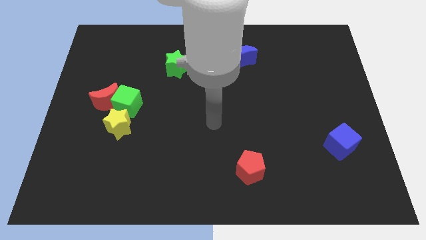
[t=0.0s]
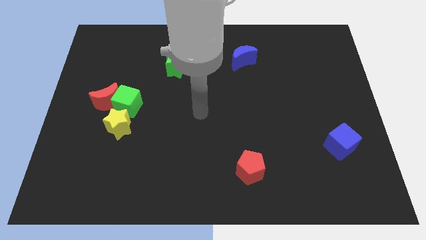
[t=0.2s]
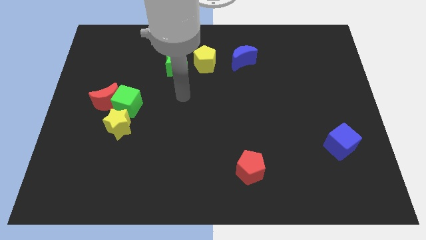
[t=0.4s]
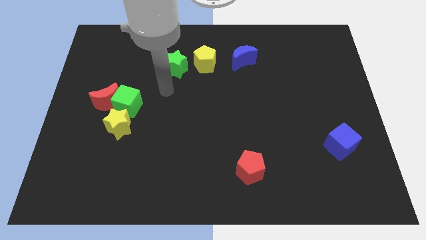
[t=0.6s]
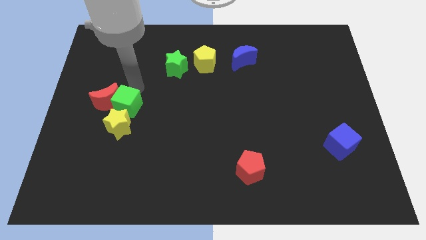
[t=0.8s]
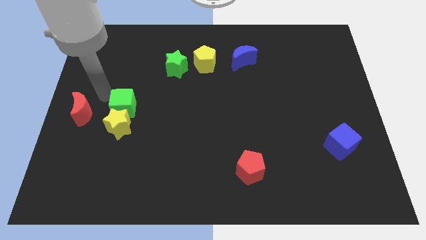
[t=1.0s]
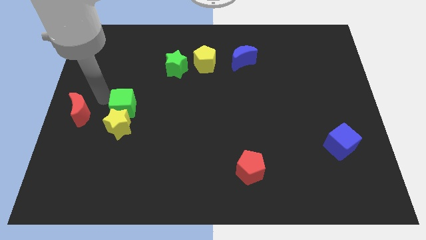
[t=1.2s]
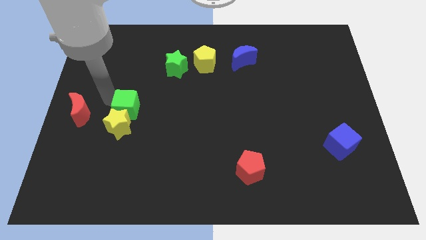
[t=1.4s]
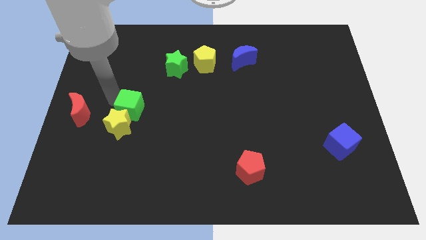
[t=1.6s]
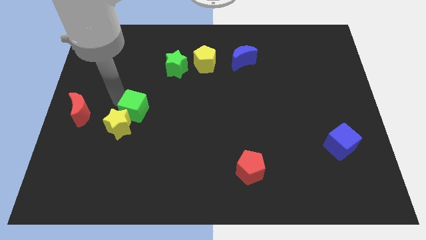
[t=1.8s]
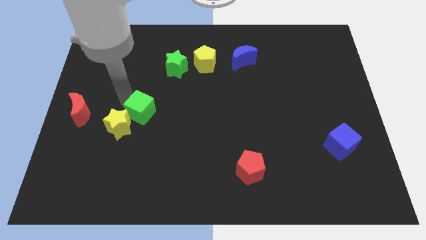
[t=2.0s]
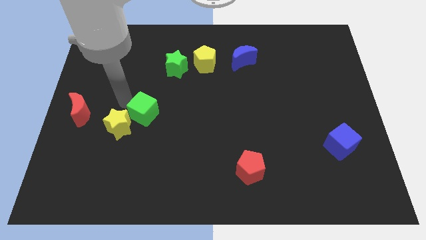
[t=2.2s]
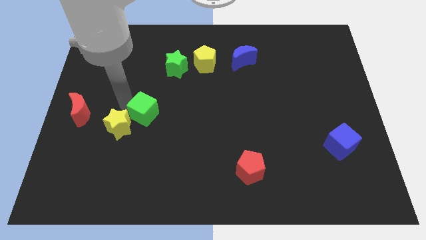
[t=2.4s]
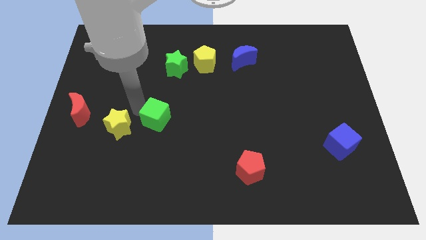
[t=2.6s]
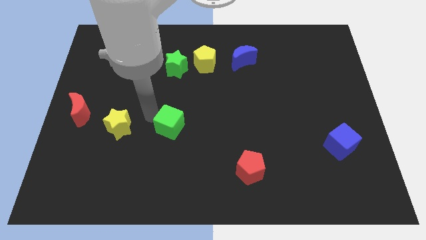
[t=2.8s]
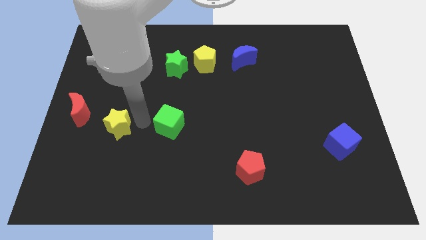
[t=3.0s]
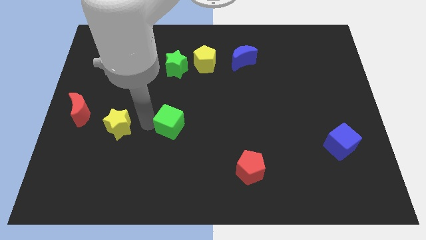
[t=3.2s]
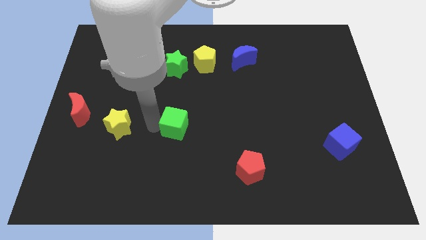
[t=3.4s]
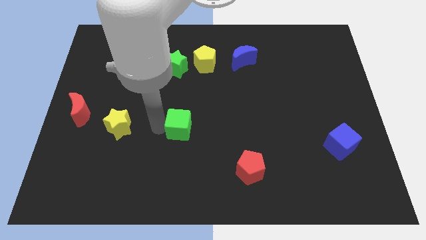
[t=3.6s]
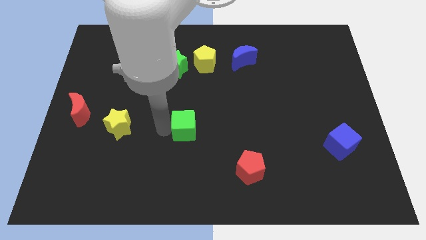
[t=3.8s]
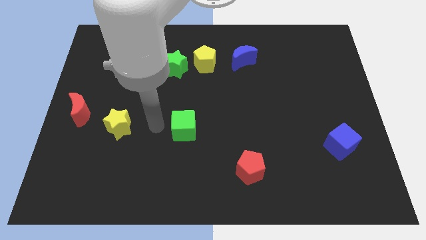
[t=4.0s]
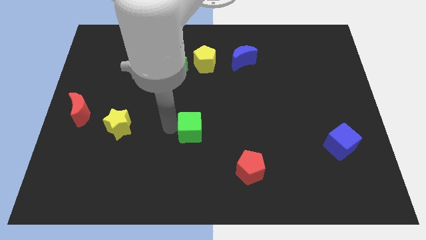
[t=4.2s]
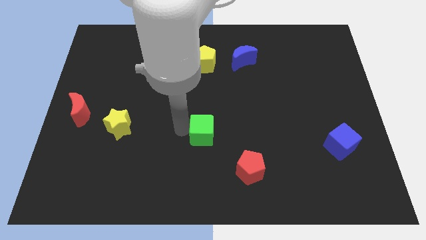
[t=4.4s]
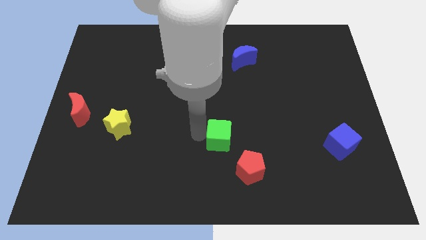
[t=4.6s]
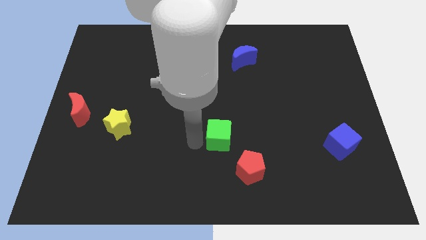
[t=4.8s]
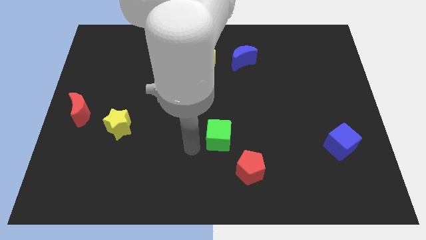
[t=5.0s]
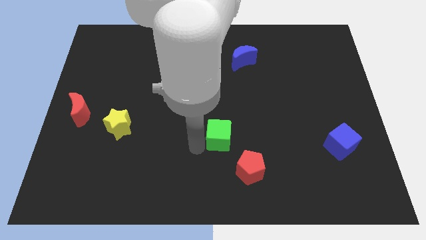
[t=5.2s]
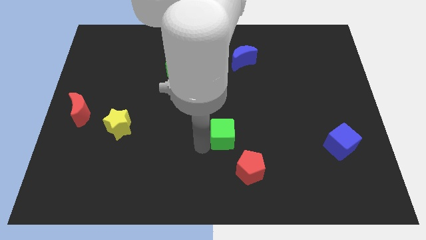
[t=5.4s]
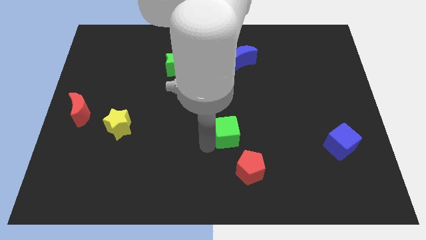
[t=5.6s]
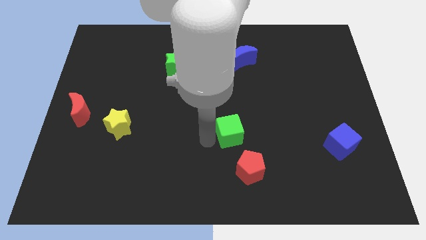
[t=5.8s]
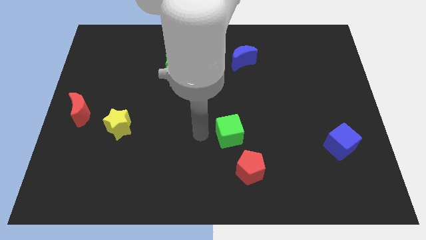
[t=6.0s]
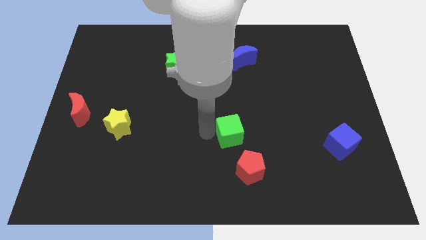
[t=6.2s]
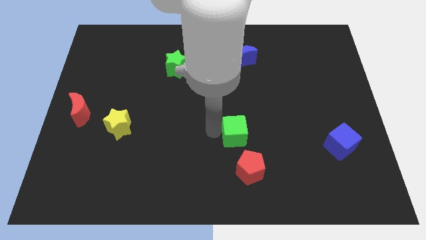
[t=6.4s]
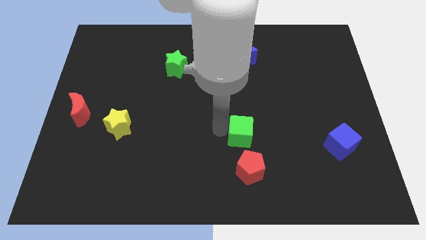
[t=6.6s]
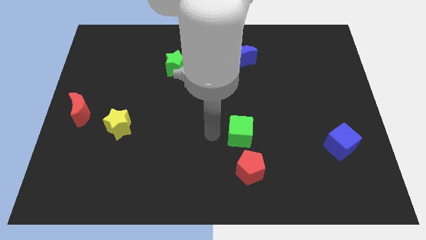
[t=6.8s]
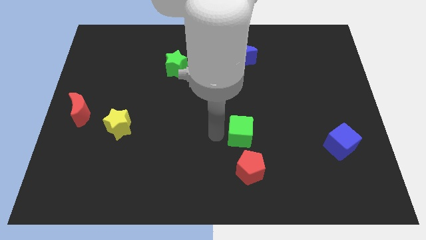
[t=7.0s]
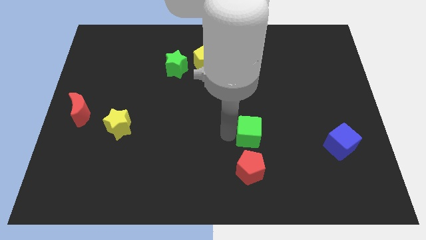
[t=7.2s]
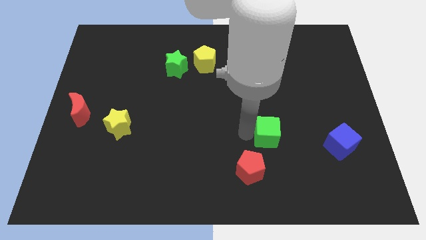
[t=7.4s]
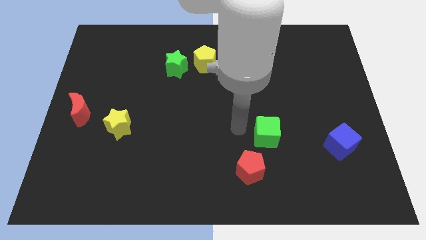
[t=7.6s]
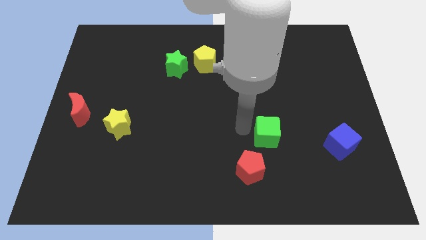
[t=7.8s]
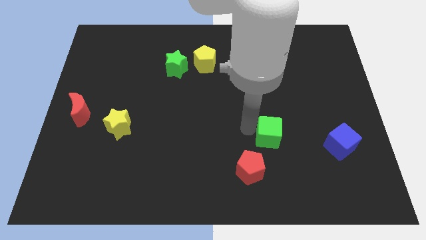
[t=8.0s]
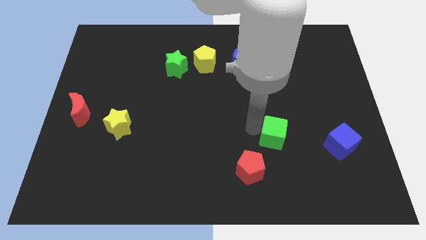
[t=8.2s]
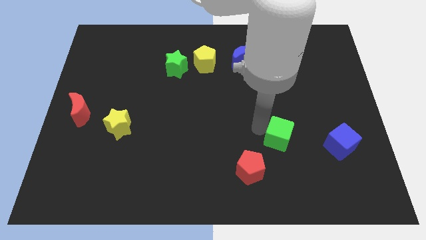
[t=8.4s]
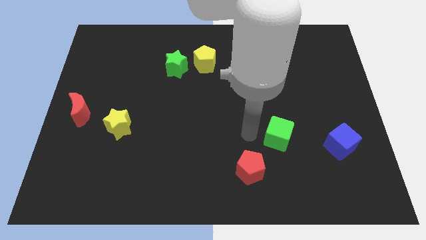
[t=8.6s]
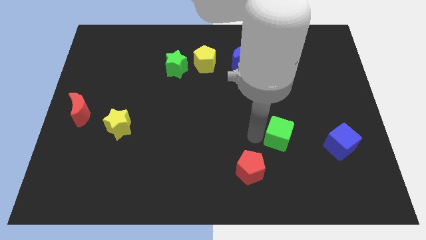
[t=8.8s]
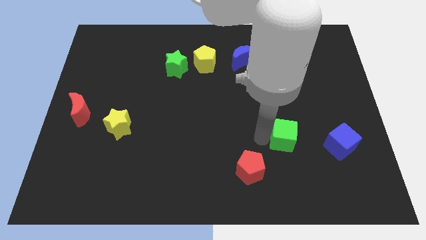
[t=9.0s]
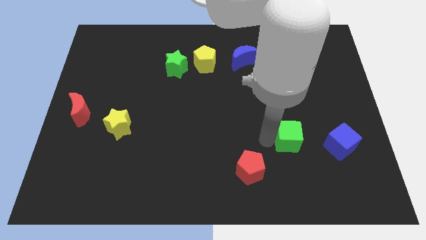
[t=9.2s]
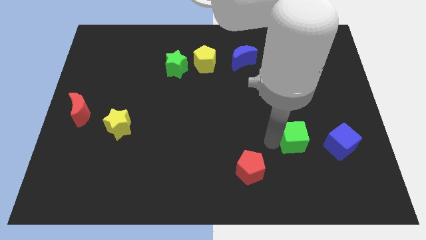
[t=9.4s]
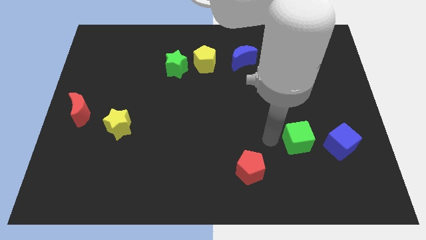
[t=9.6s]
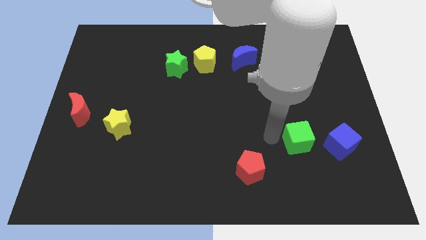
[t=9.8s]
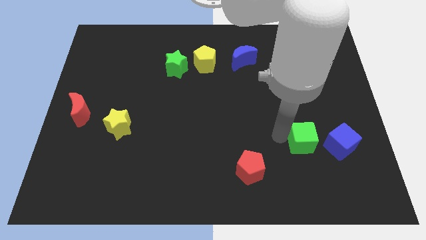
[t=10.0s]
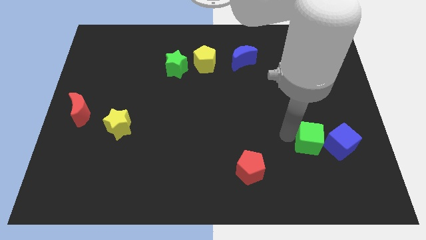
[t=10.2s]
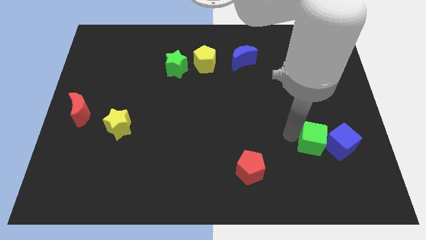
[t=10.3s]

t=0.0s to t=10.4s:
push the green cube towards the blue cube

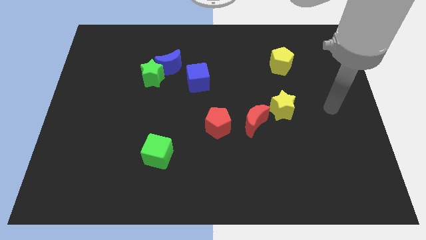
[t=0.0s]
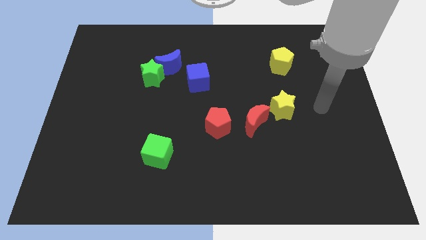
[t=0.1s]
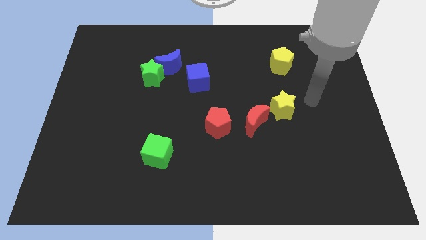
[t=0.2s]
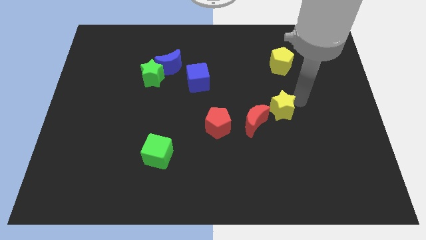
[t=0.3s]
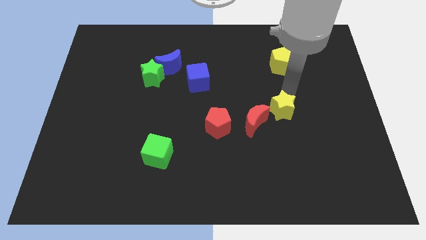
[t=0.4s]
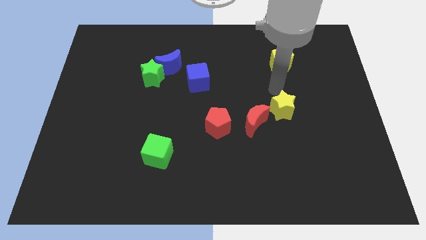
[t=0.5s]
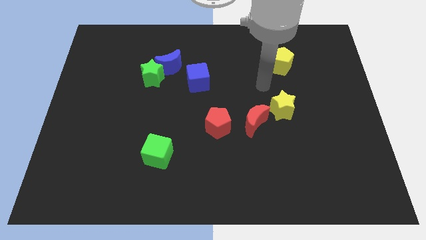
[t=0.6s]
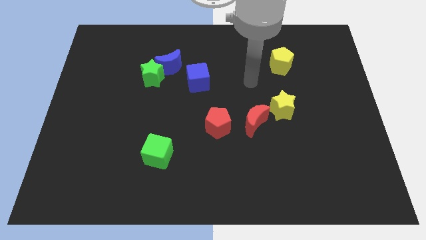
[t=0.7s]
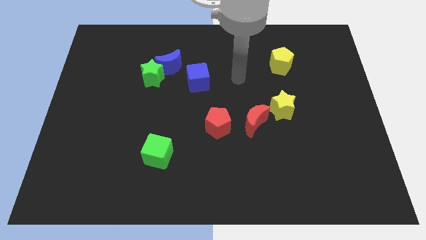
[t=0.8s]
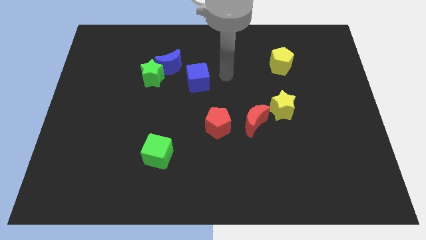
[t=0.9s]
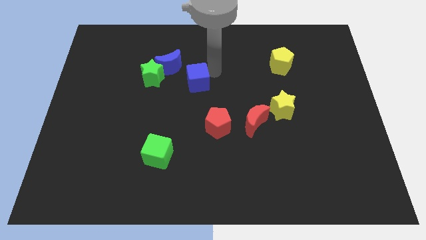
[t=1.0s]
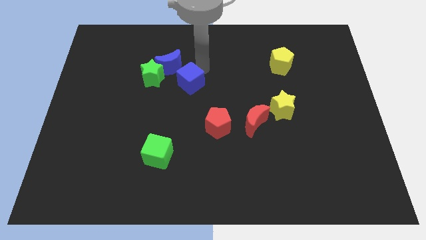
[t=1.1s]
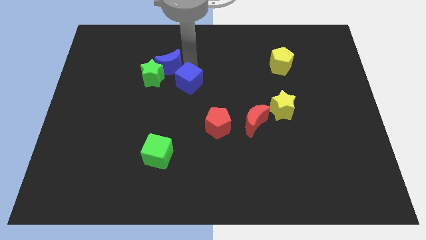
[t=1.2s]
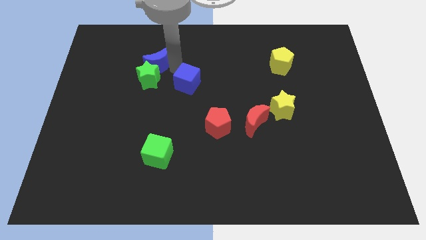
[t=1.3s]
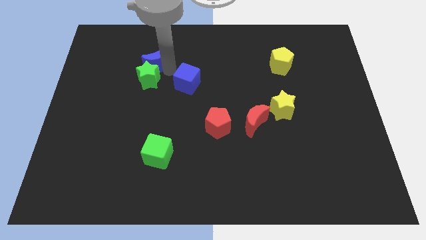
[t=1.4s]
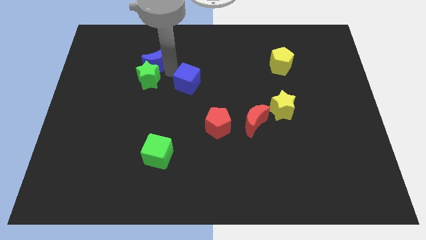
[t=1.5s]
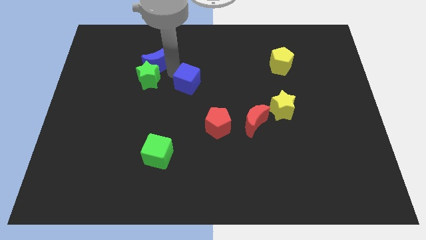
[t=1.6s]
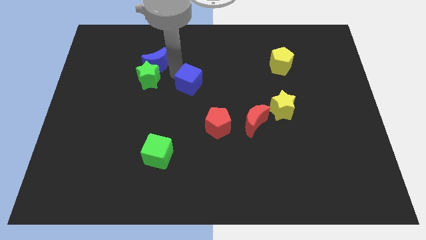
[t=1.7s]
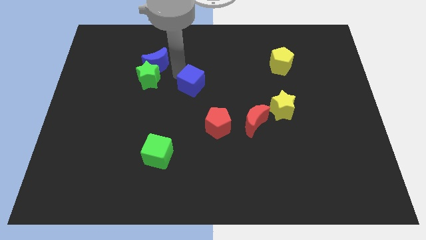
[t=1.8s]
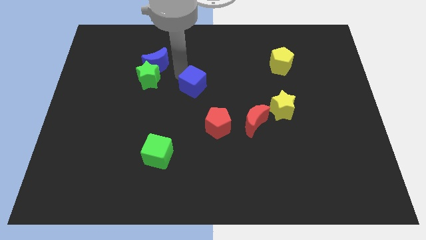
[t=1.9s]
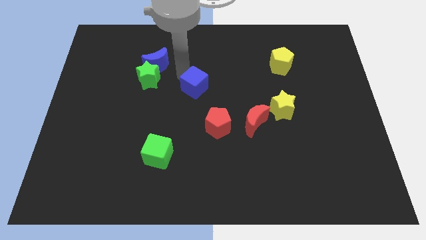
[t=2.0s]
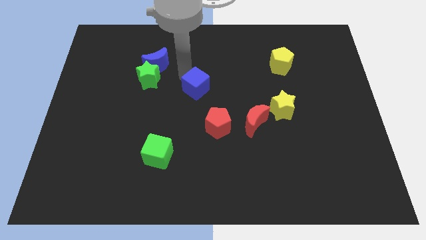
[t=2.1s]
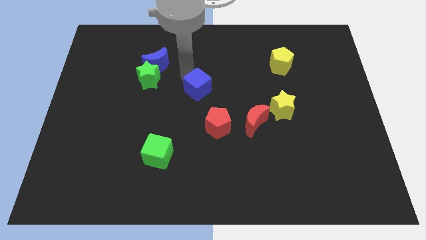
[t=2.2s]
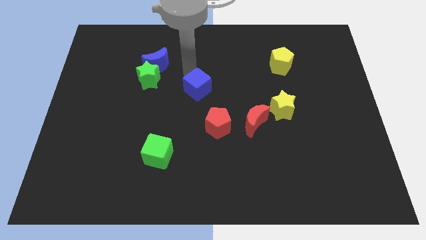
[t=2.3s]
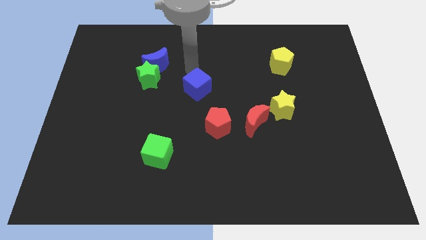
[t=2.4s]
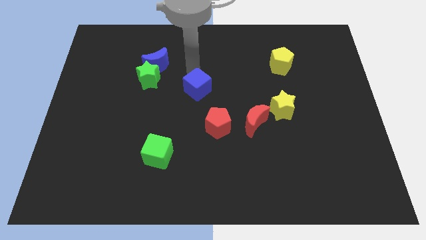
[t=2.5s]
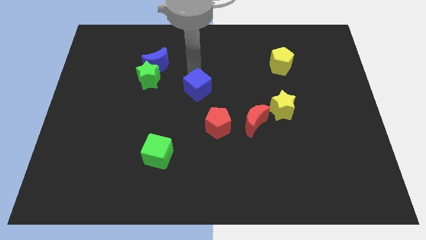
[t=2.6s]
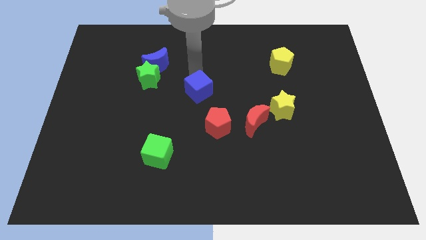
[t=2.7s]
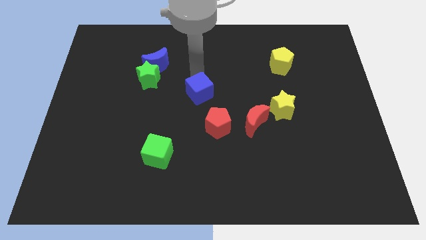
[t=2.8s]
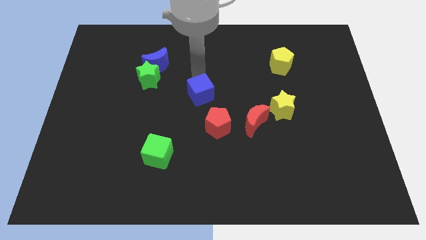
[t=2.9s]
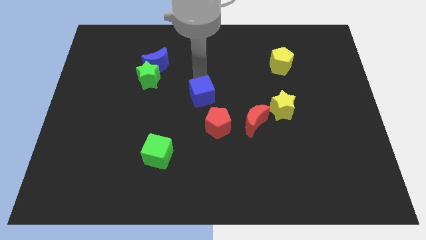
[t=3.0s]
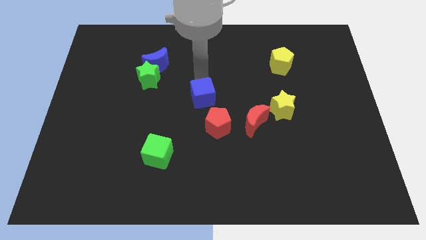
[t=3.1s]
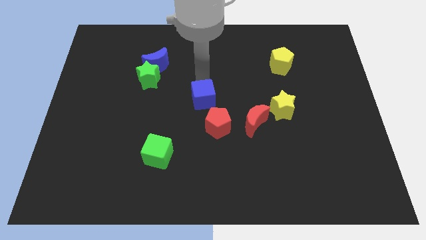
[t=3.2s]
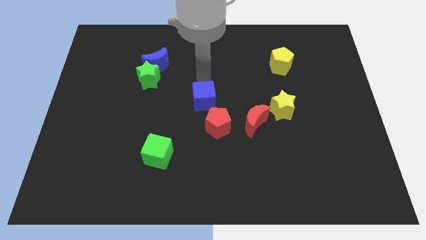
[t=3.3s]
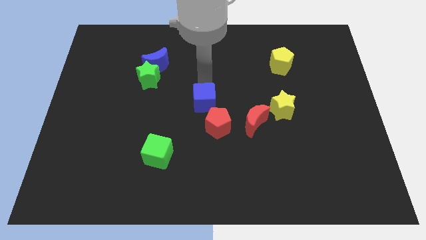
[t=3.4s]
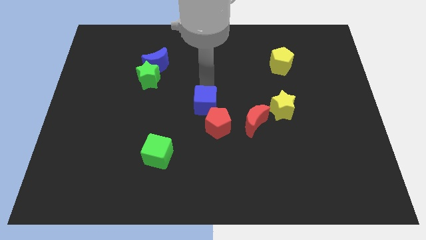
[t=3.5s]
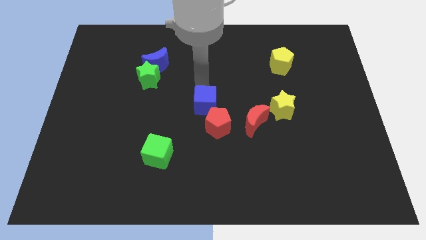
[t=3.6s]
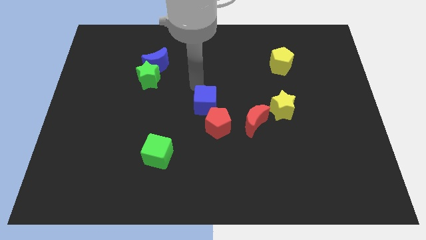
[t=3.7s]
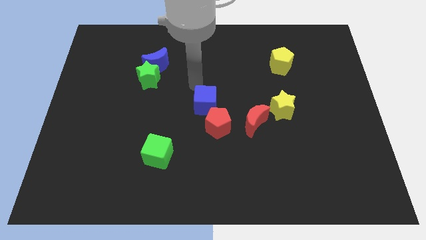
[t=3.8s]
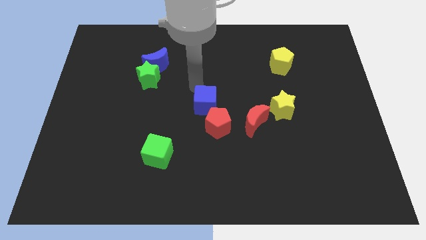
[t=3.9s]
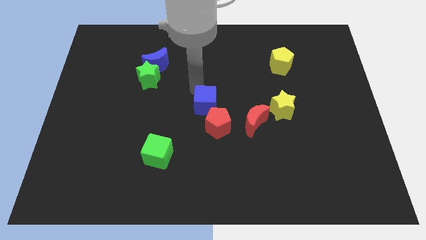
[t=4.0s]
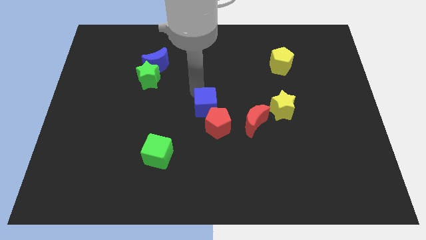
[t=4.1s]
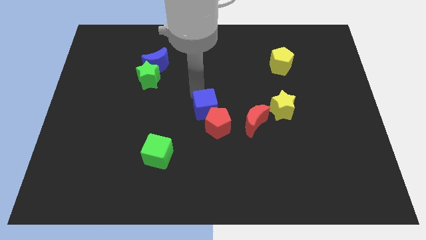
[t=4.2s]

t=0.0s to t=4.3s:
move the blue cube towards the red pentagon
